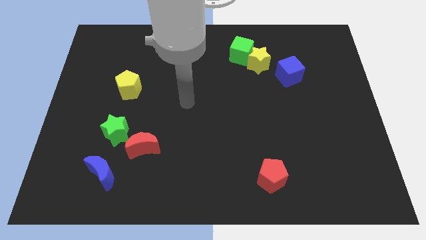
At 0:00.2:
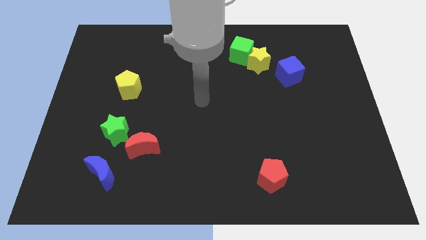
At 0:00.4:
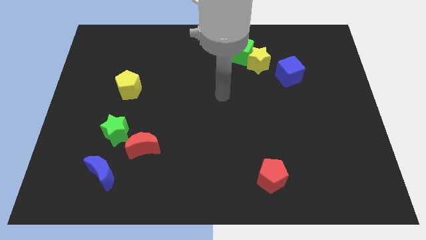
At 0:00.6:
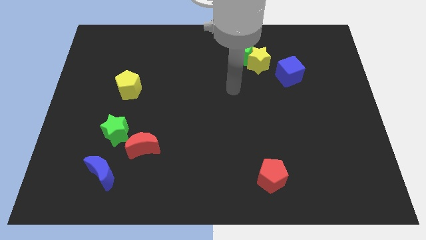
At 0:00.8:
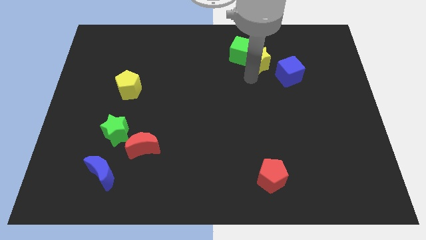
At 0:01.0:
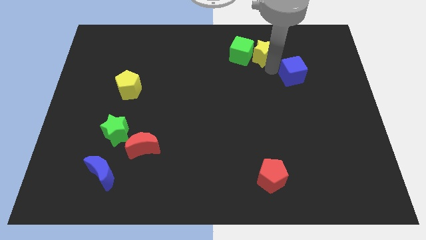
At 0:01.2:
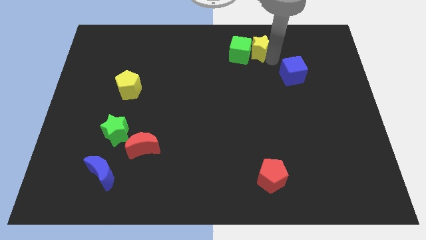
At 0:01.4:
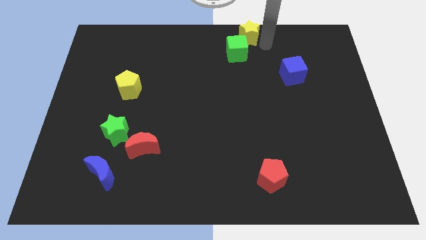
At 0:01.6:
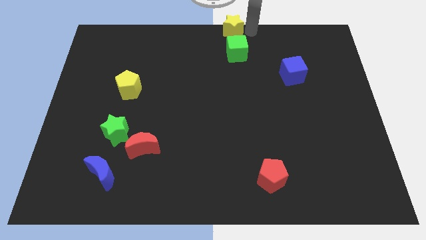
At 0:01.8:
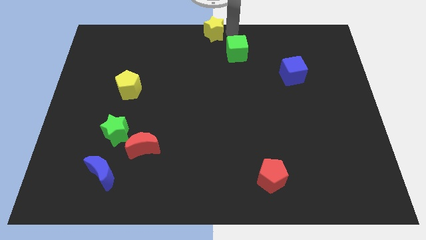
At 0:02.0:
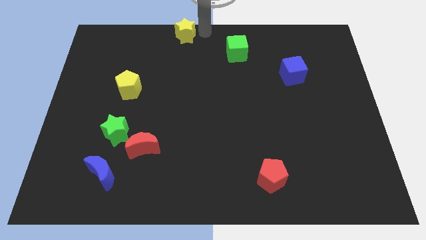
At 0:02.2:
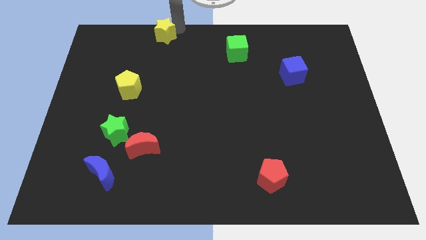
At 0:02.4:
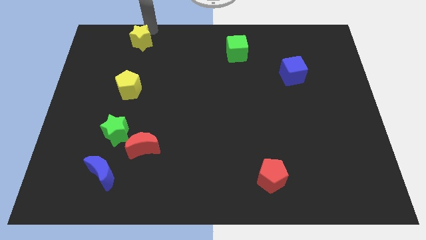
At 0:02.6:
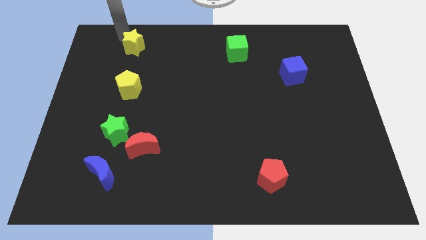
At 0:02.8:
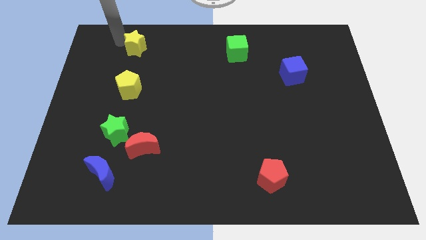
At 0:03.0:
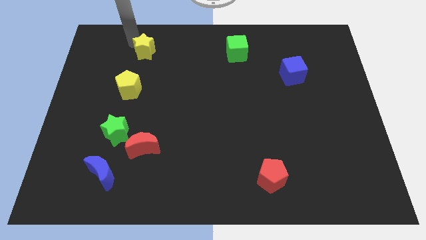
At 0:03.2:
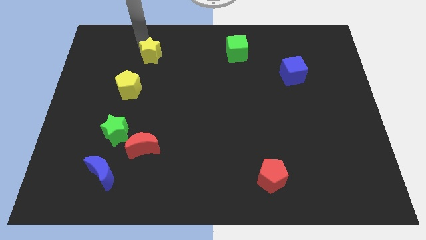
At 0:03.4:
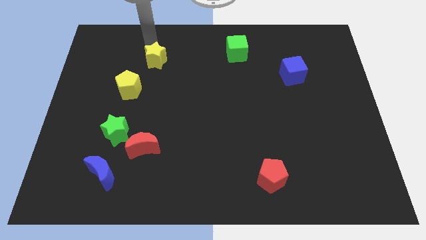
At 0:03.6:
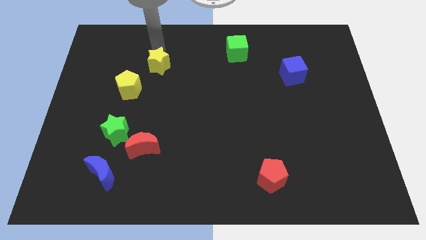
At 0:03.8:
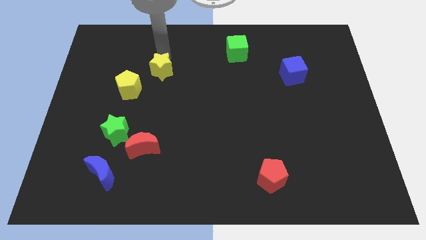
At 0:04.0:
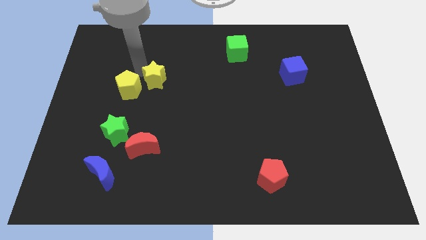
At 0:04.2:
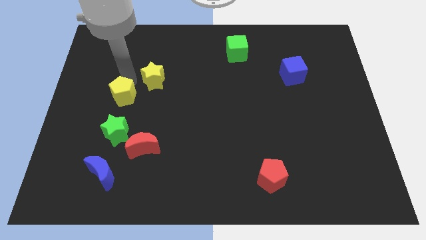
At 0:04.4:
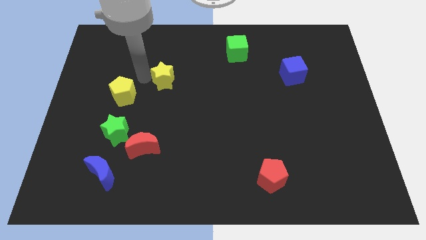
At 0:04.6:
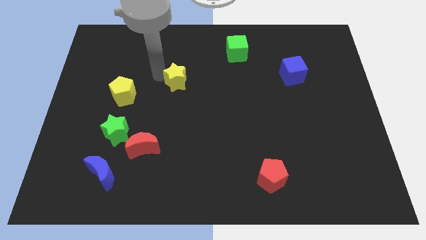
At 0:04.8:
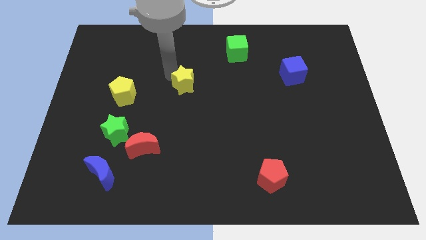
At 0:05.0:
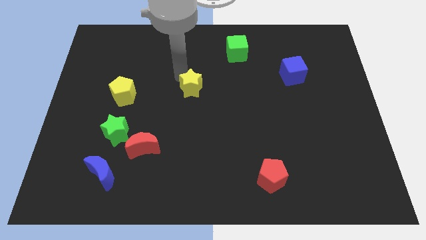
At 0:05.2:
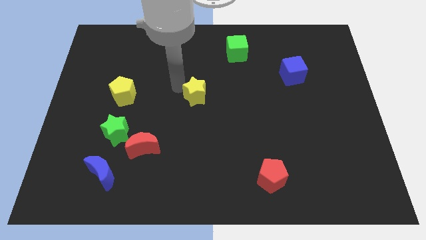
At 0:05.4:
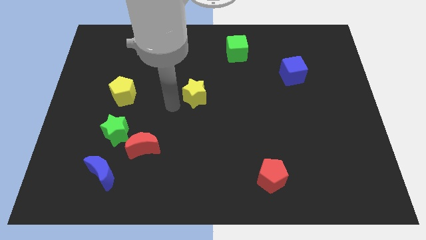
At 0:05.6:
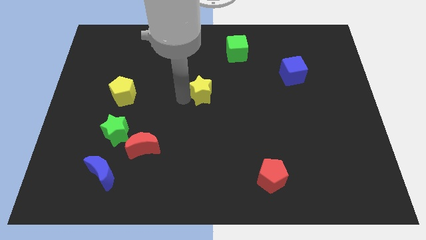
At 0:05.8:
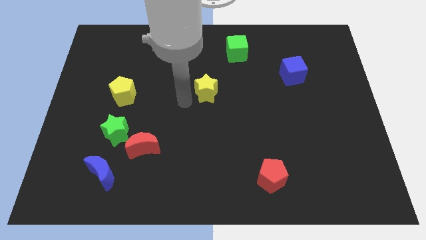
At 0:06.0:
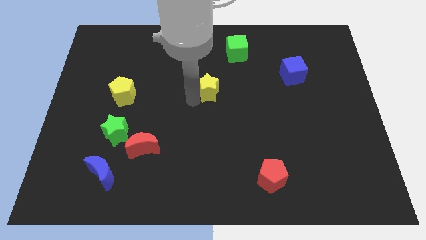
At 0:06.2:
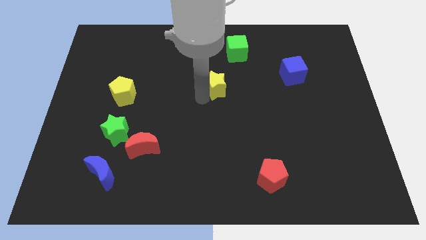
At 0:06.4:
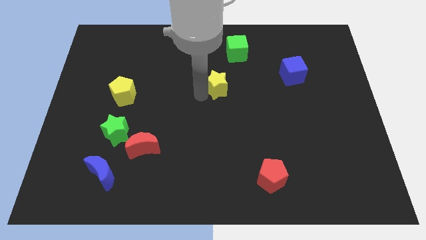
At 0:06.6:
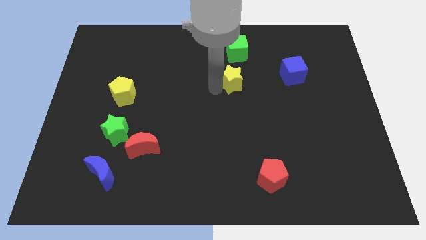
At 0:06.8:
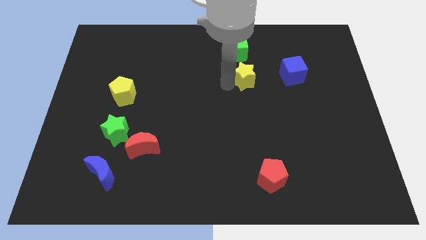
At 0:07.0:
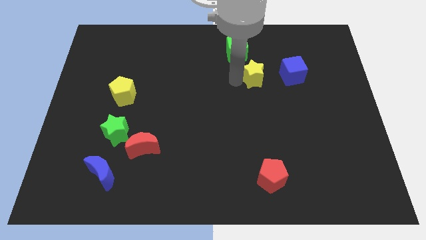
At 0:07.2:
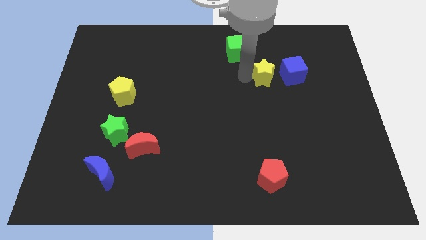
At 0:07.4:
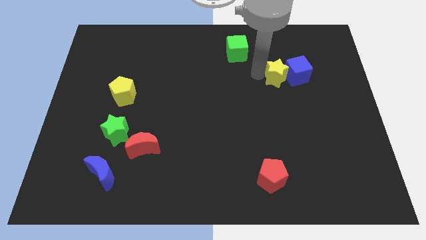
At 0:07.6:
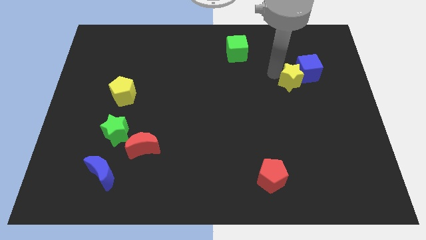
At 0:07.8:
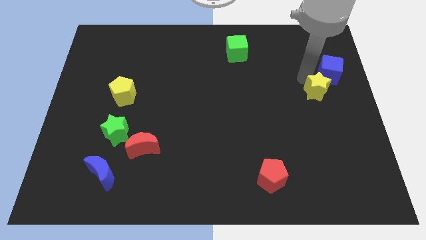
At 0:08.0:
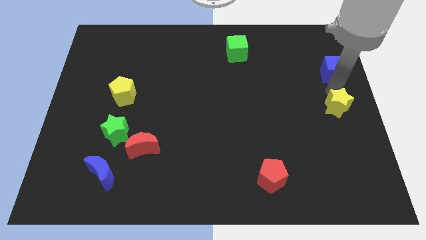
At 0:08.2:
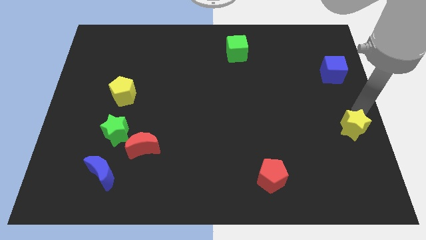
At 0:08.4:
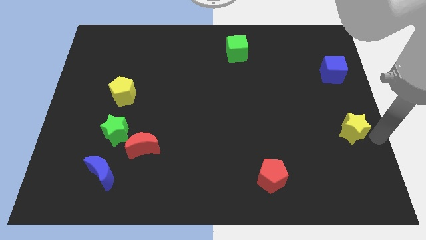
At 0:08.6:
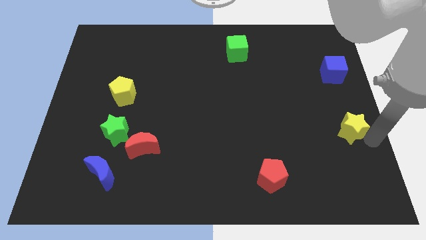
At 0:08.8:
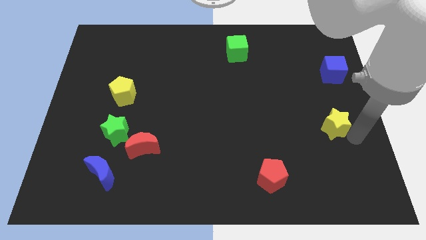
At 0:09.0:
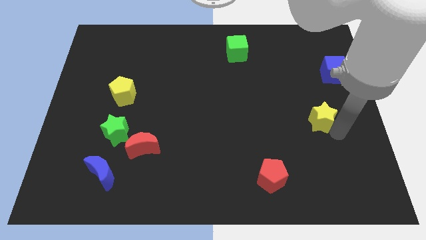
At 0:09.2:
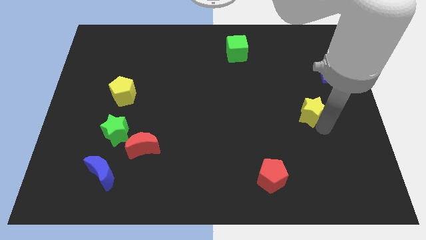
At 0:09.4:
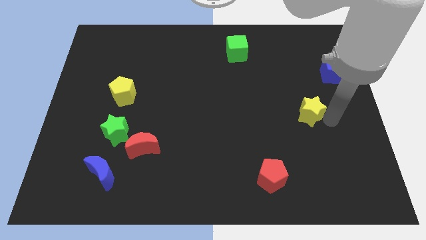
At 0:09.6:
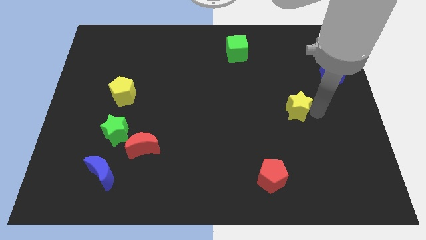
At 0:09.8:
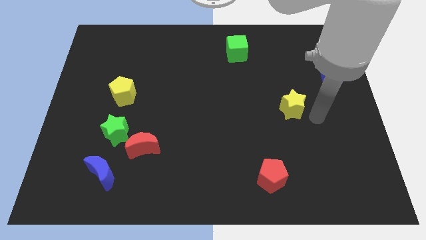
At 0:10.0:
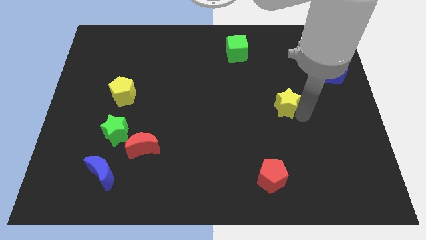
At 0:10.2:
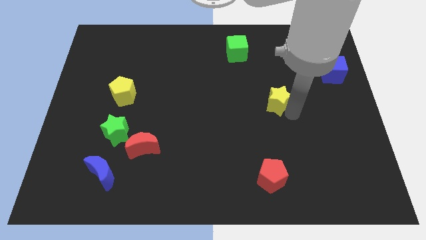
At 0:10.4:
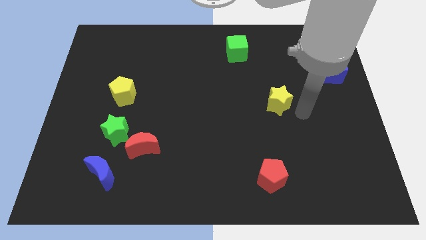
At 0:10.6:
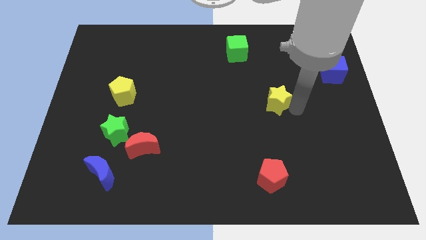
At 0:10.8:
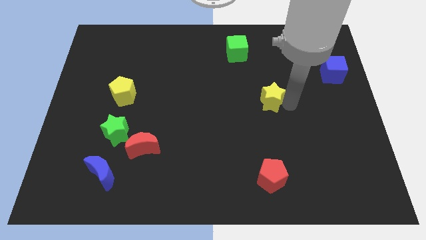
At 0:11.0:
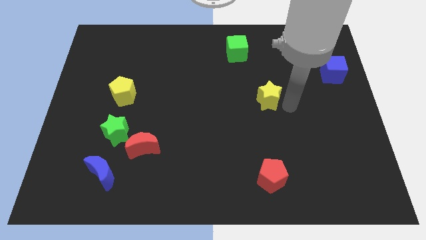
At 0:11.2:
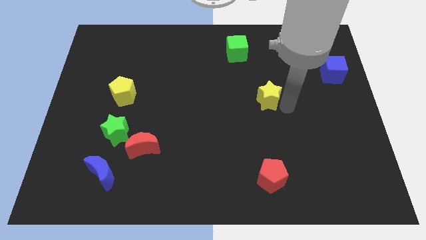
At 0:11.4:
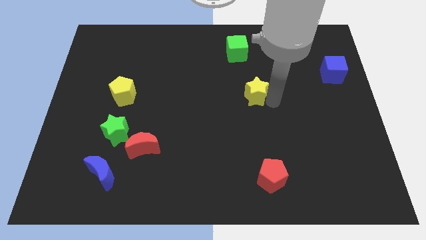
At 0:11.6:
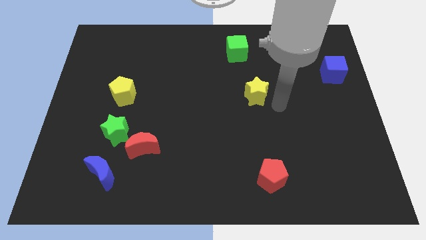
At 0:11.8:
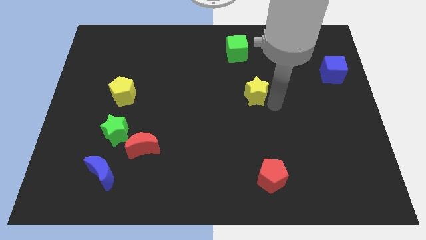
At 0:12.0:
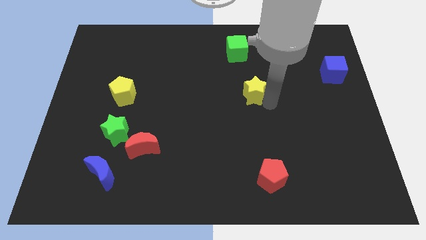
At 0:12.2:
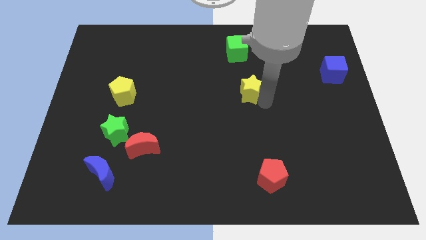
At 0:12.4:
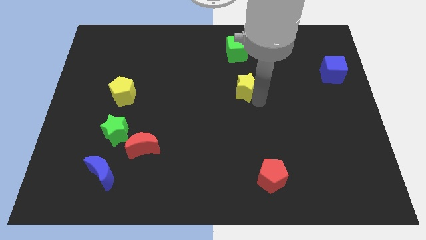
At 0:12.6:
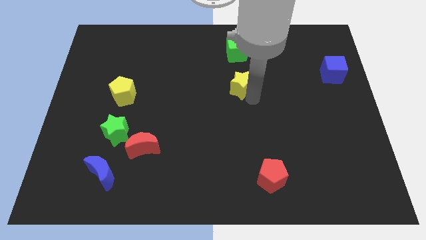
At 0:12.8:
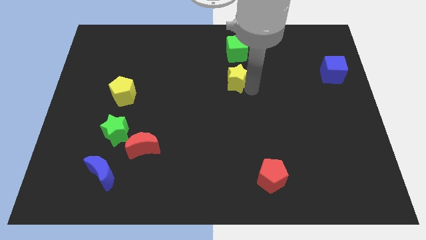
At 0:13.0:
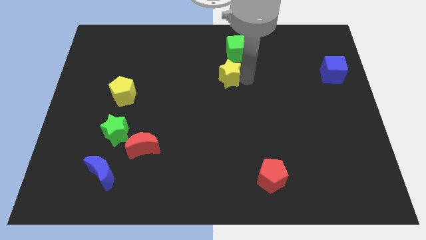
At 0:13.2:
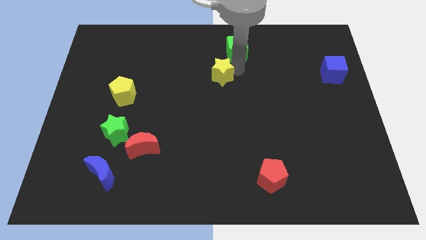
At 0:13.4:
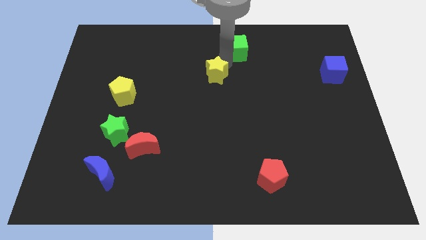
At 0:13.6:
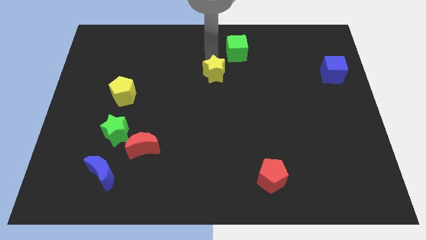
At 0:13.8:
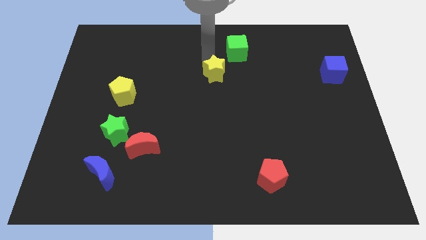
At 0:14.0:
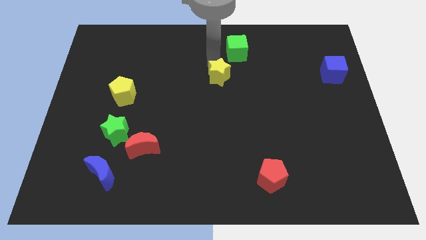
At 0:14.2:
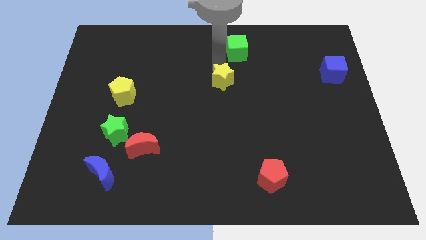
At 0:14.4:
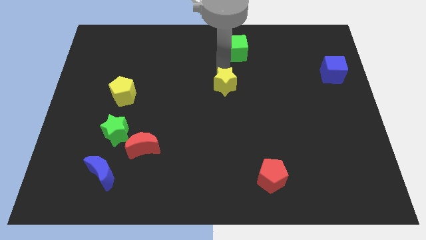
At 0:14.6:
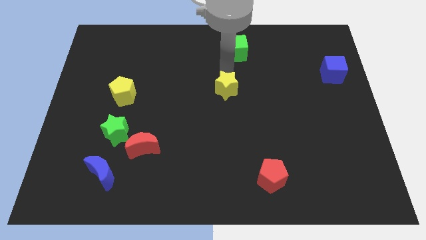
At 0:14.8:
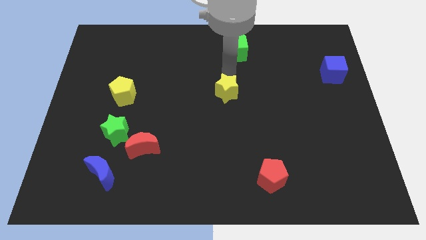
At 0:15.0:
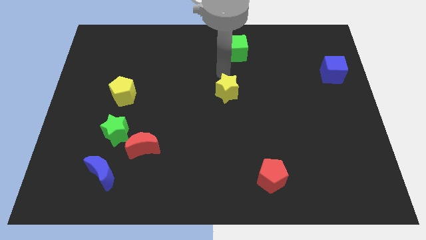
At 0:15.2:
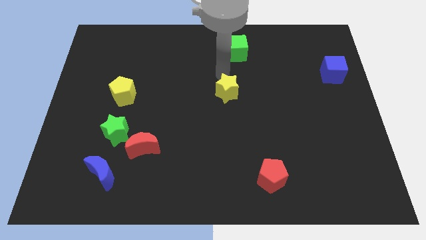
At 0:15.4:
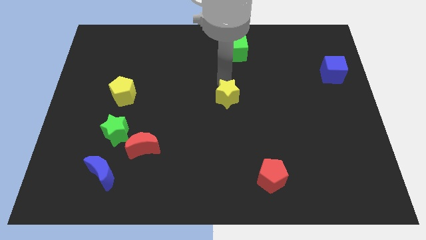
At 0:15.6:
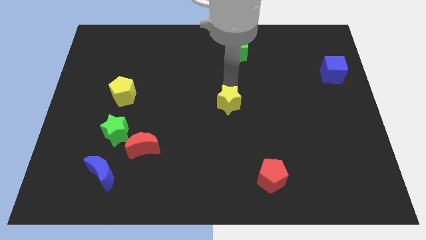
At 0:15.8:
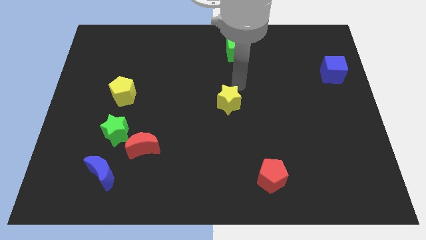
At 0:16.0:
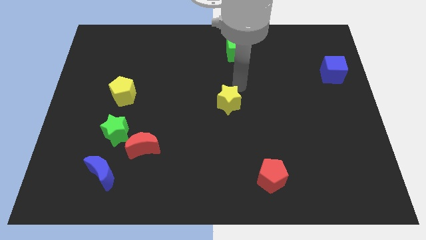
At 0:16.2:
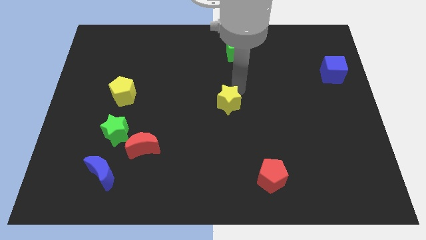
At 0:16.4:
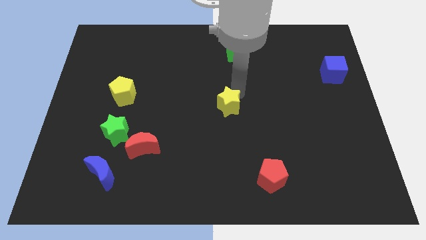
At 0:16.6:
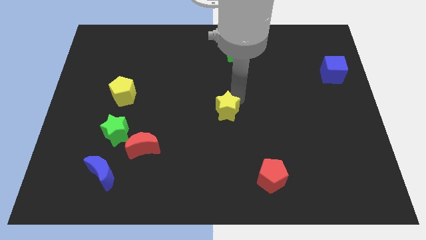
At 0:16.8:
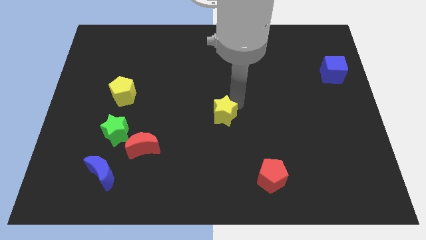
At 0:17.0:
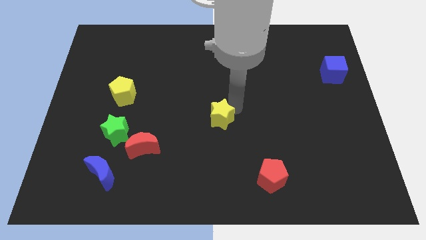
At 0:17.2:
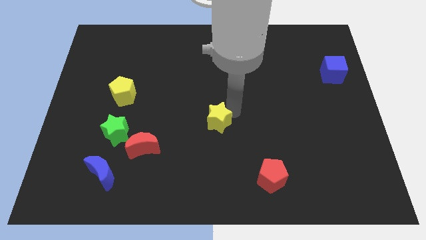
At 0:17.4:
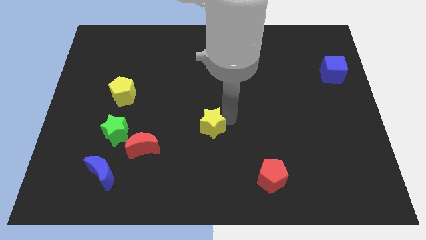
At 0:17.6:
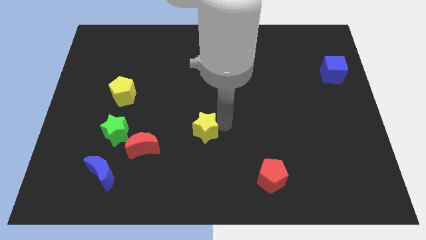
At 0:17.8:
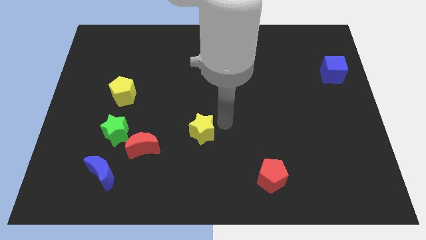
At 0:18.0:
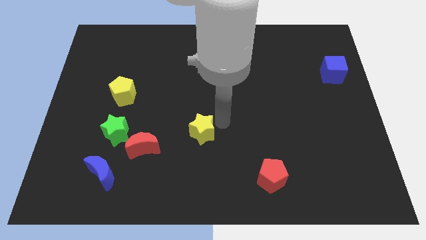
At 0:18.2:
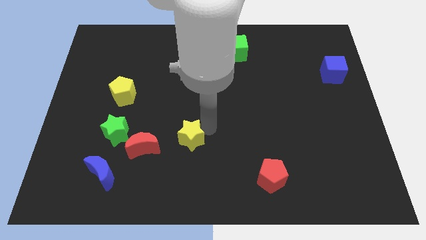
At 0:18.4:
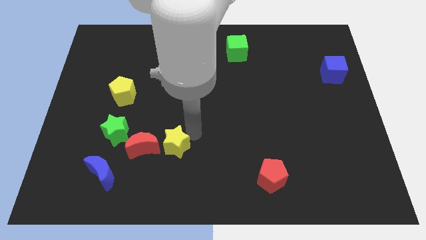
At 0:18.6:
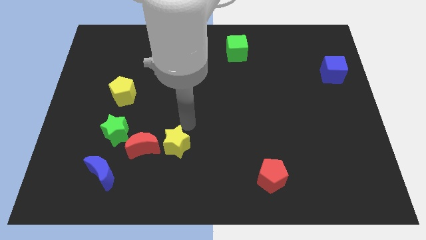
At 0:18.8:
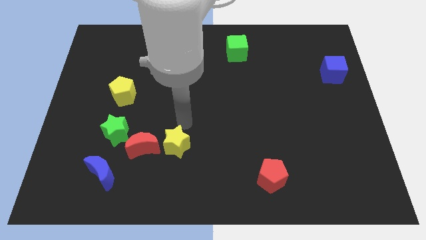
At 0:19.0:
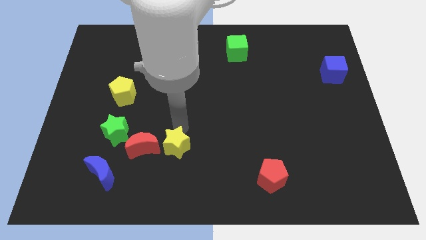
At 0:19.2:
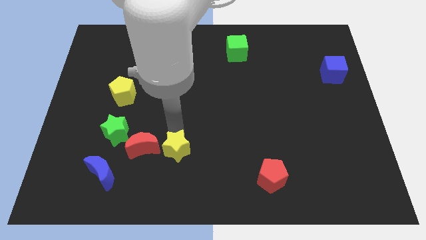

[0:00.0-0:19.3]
move the yellow star to the bottom right of the red moon
